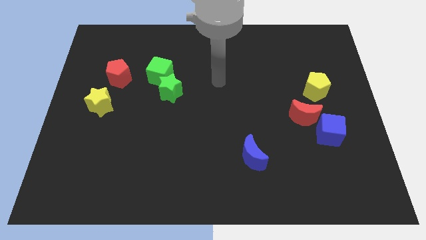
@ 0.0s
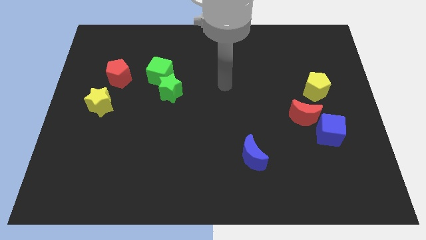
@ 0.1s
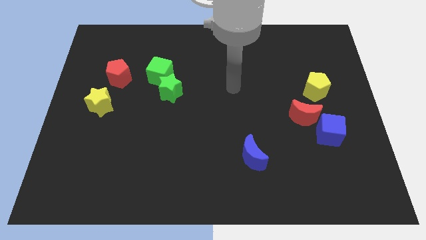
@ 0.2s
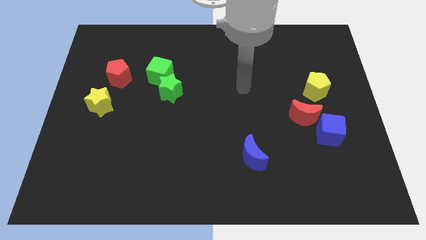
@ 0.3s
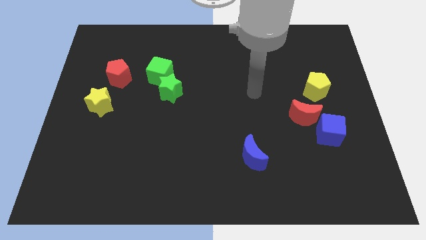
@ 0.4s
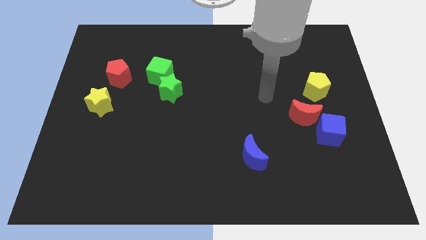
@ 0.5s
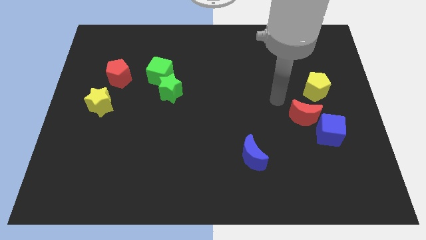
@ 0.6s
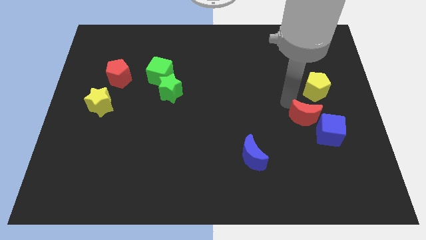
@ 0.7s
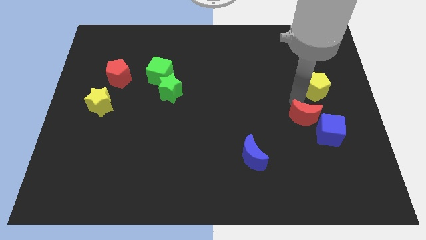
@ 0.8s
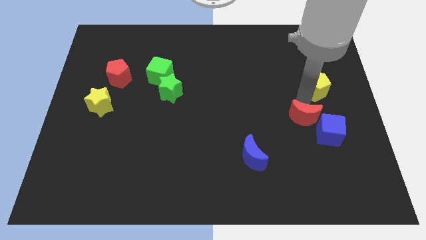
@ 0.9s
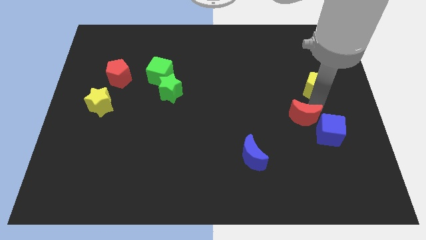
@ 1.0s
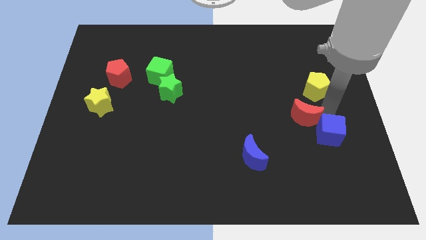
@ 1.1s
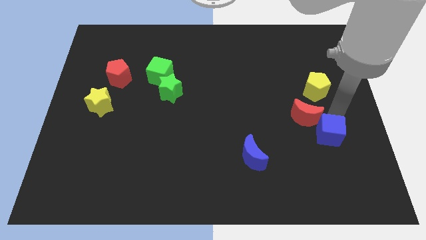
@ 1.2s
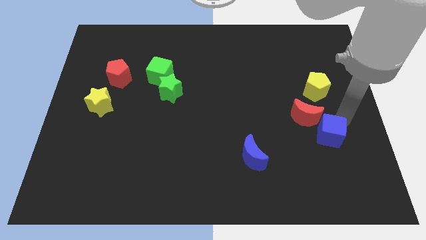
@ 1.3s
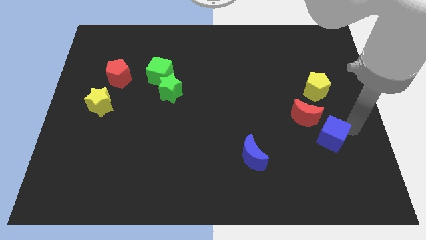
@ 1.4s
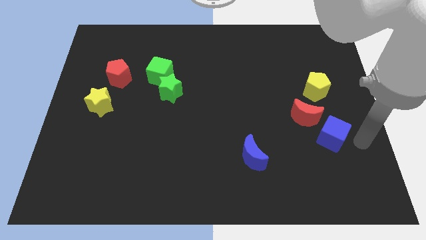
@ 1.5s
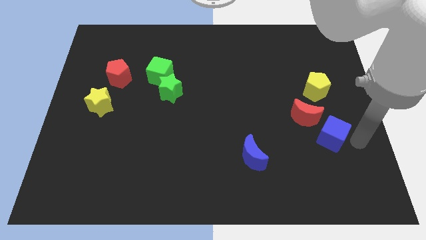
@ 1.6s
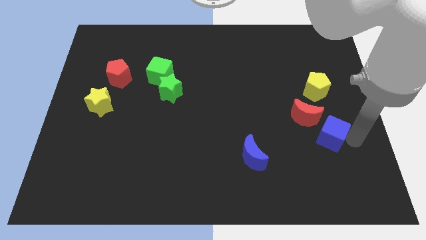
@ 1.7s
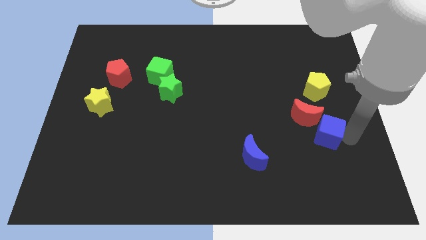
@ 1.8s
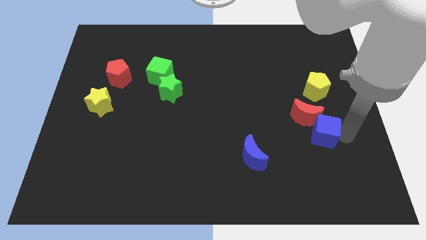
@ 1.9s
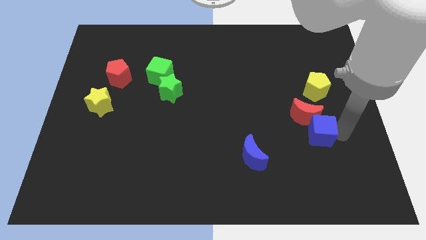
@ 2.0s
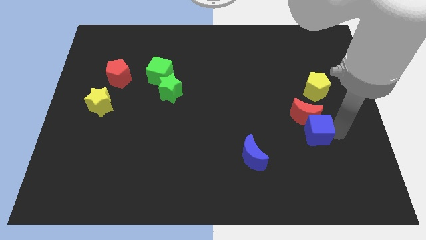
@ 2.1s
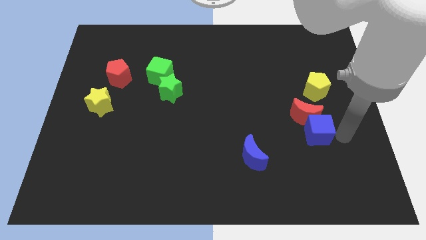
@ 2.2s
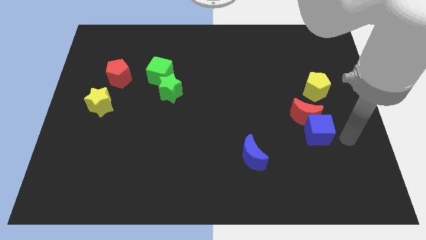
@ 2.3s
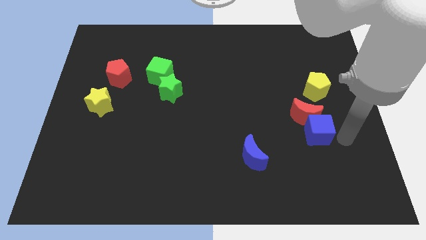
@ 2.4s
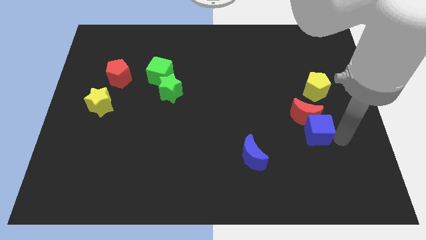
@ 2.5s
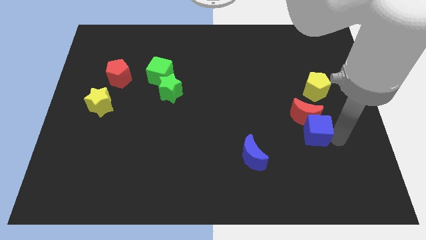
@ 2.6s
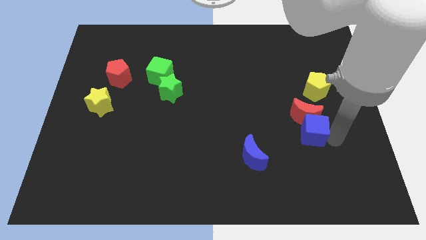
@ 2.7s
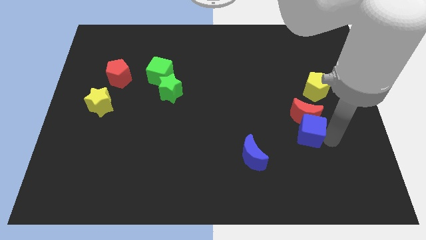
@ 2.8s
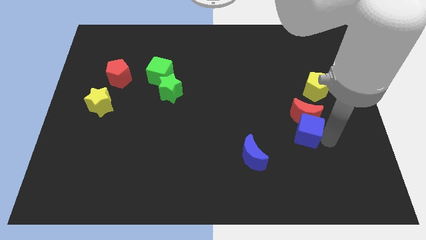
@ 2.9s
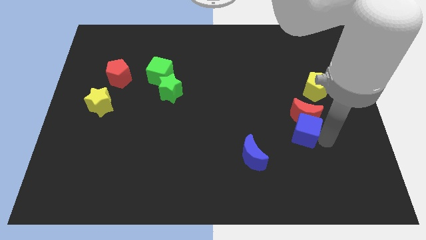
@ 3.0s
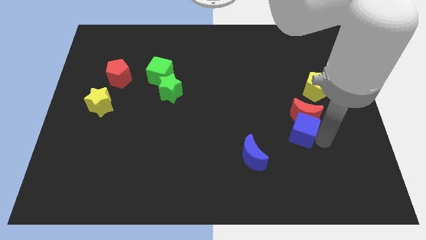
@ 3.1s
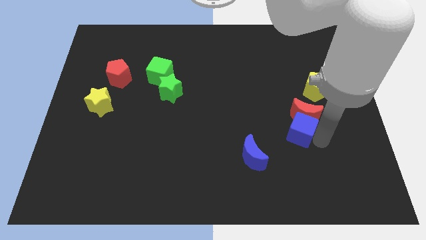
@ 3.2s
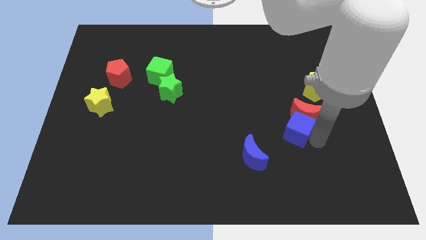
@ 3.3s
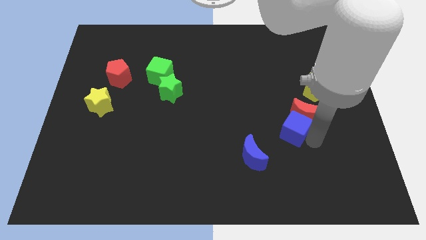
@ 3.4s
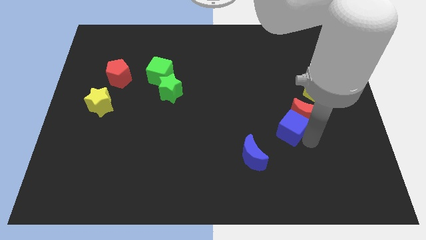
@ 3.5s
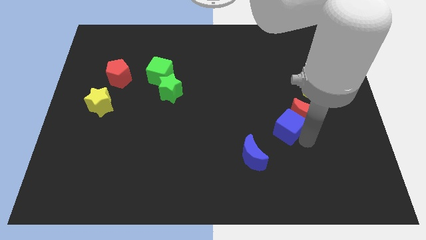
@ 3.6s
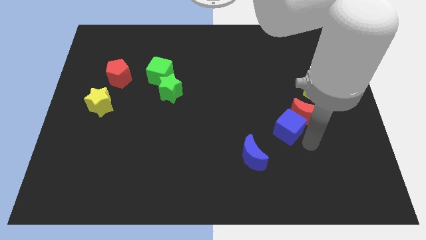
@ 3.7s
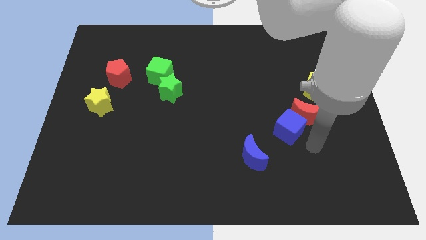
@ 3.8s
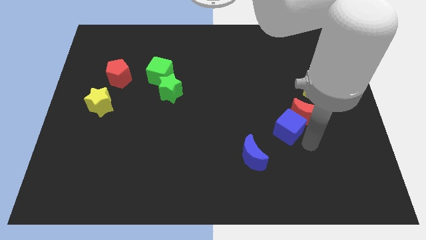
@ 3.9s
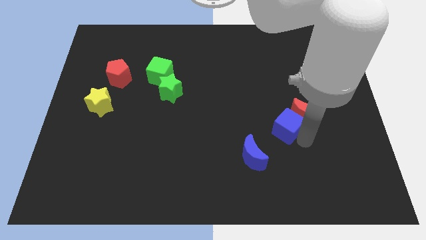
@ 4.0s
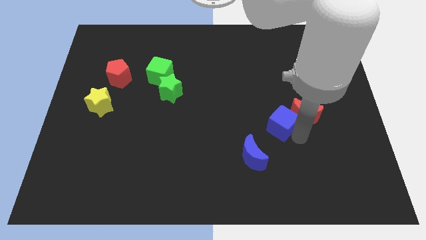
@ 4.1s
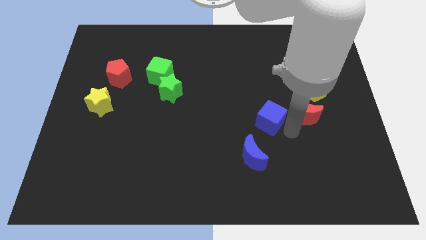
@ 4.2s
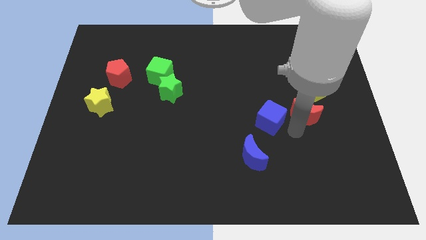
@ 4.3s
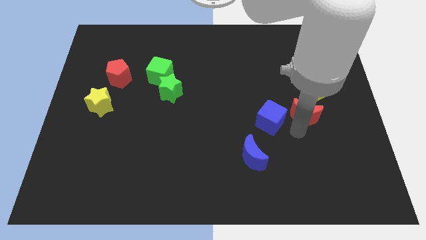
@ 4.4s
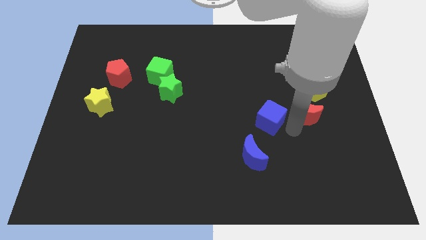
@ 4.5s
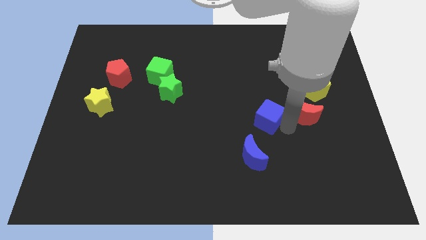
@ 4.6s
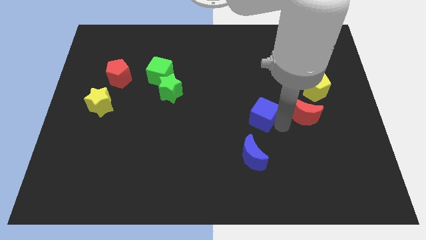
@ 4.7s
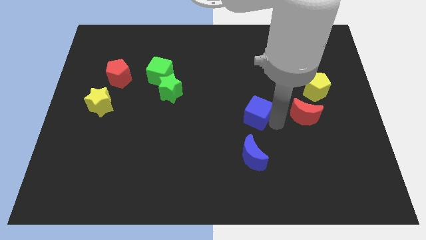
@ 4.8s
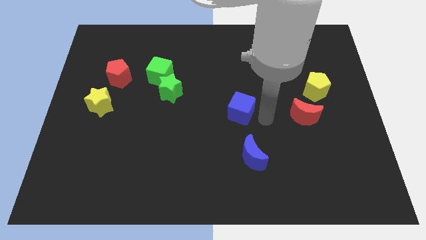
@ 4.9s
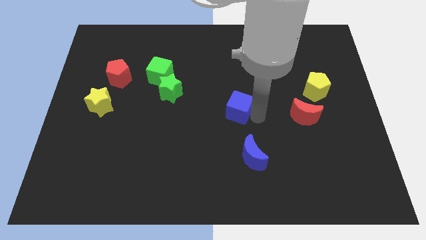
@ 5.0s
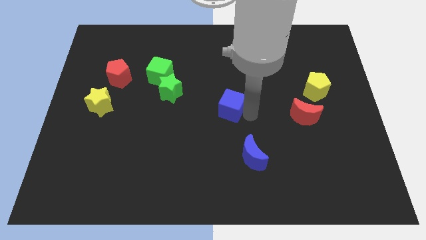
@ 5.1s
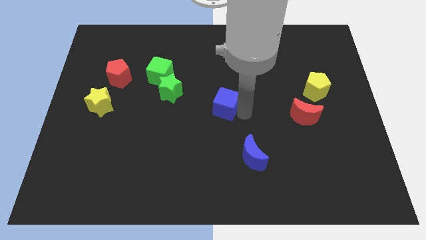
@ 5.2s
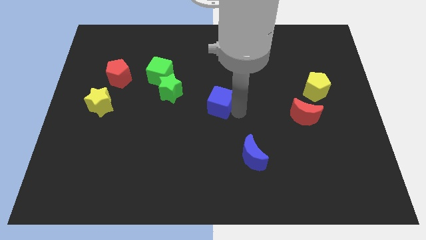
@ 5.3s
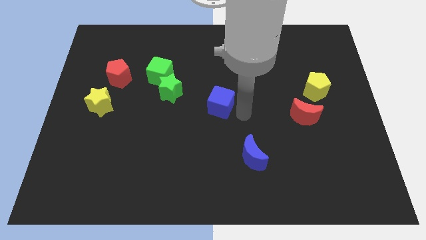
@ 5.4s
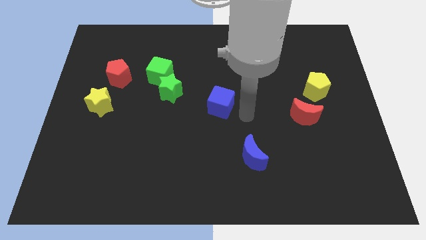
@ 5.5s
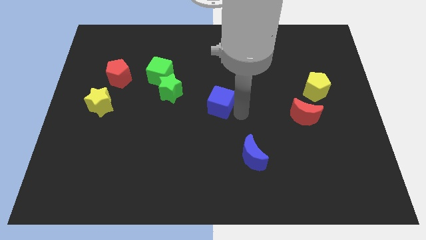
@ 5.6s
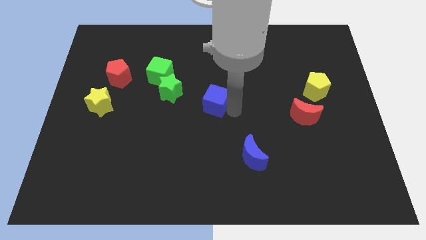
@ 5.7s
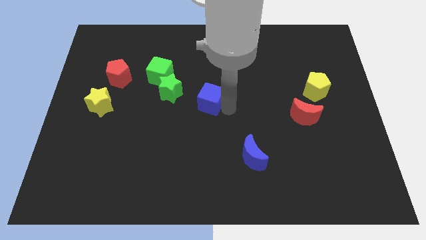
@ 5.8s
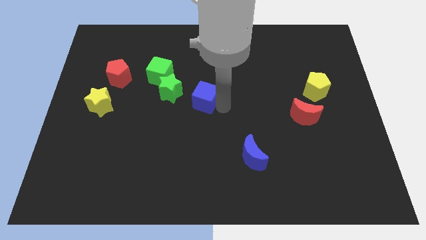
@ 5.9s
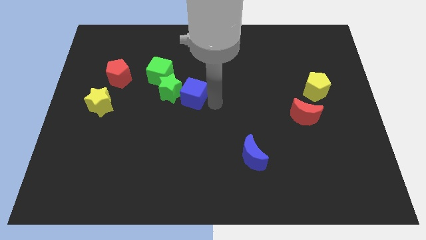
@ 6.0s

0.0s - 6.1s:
move the blue cube towards the green star

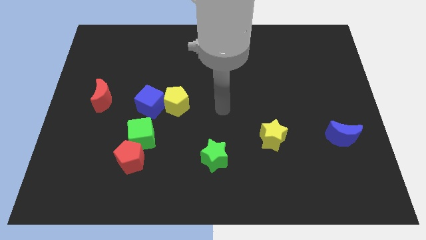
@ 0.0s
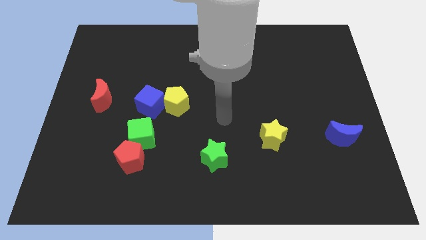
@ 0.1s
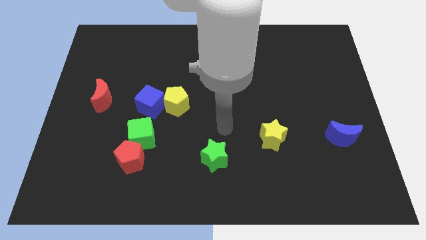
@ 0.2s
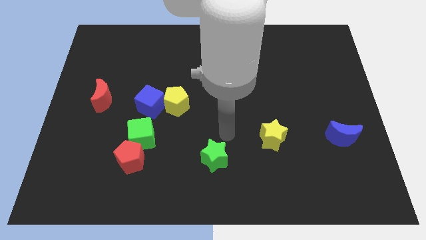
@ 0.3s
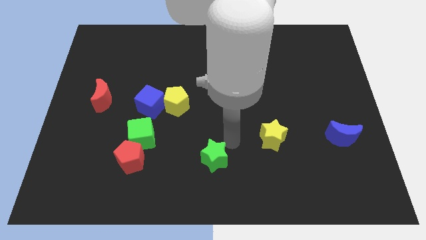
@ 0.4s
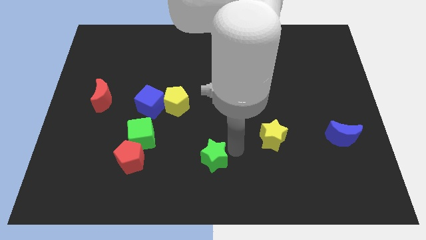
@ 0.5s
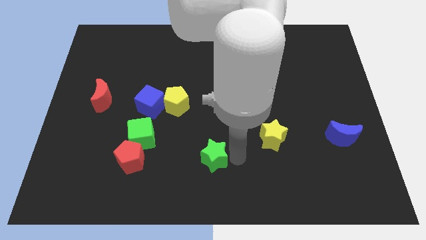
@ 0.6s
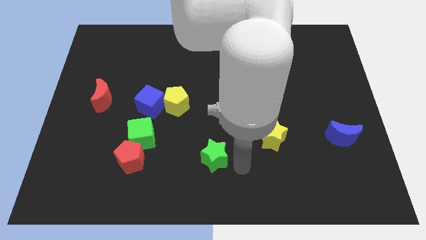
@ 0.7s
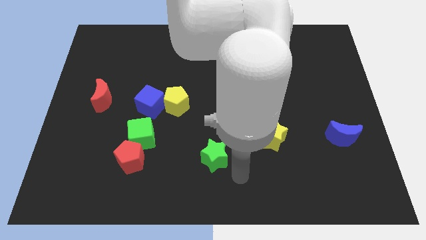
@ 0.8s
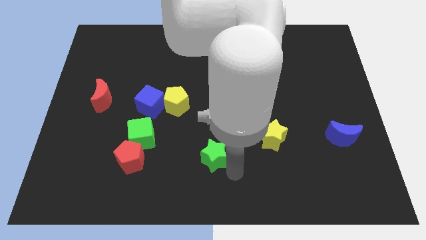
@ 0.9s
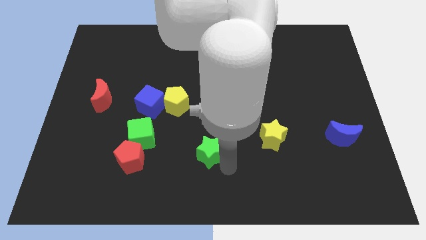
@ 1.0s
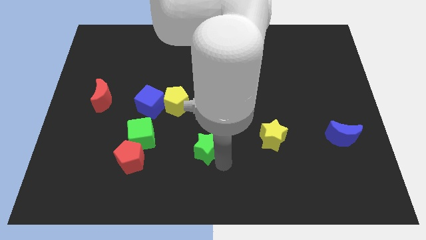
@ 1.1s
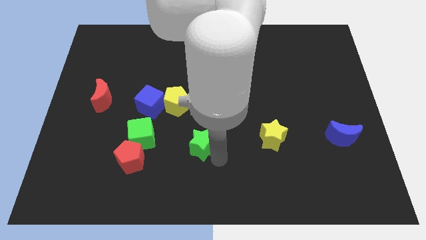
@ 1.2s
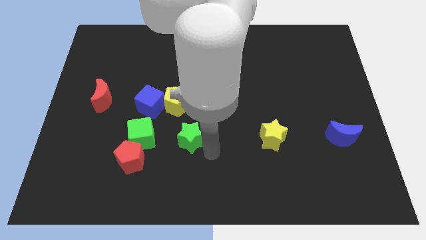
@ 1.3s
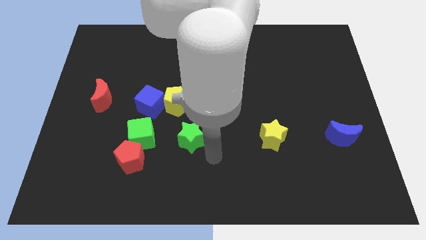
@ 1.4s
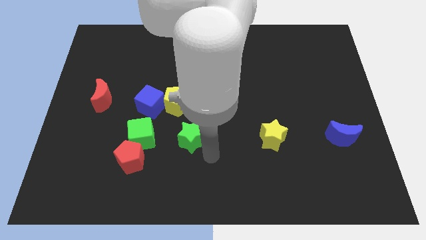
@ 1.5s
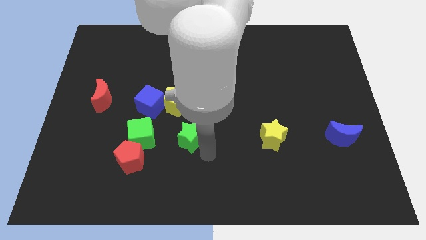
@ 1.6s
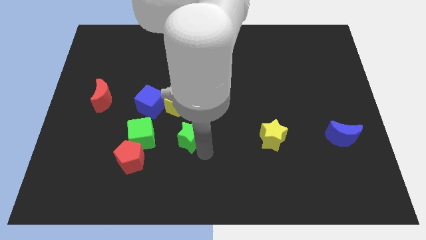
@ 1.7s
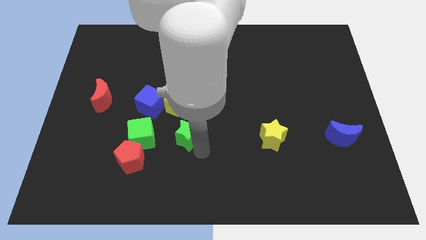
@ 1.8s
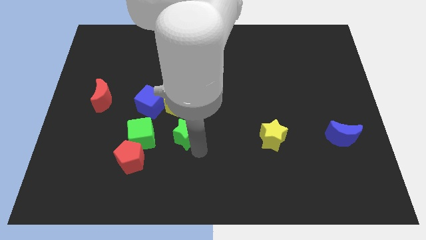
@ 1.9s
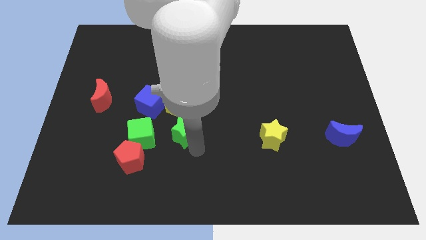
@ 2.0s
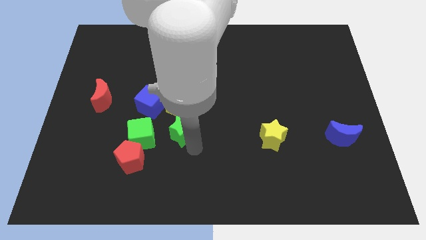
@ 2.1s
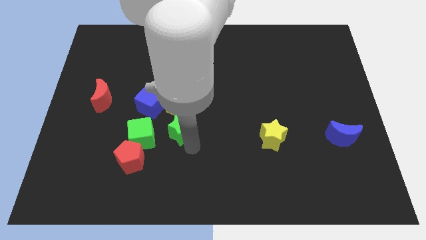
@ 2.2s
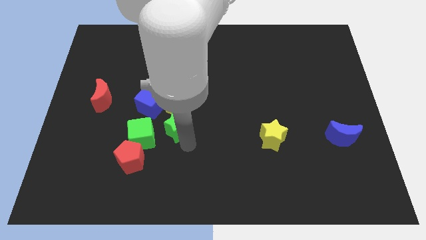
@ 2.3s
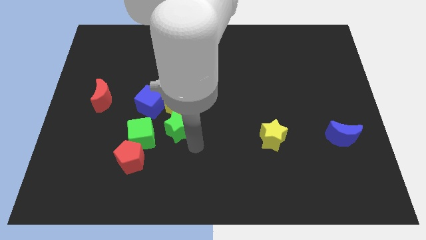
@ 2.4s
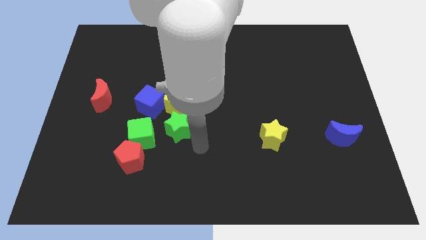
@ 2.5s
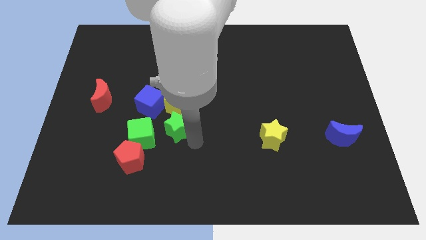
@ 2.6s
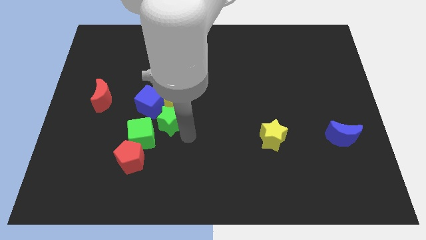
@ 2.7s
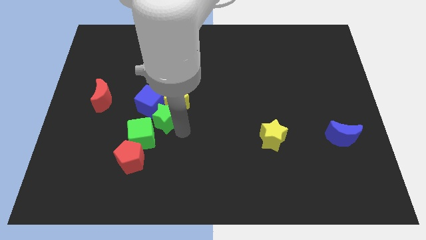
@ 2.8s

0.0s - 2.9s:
push the green star to the blue cube
